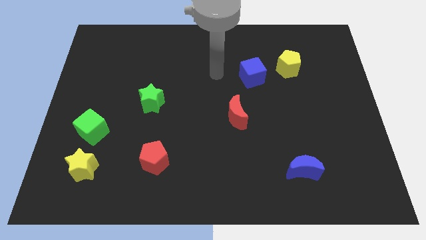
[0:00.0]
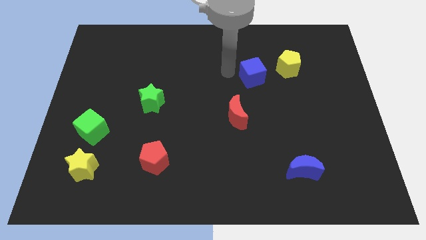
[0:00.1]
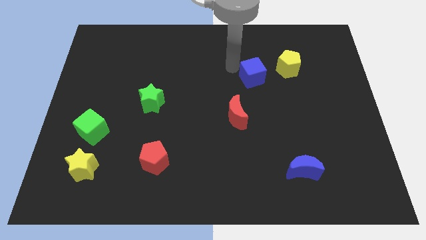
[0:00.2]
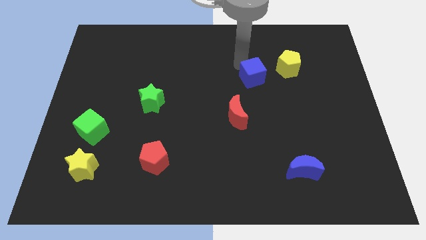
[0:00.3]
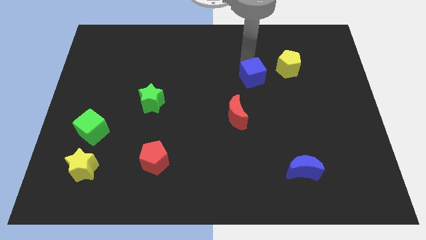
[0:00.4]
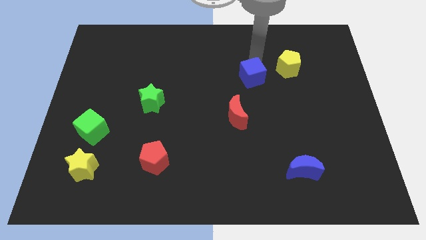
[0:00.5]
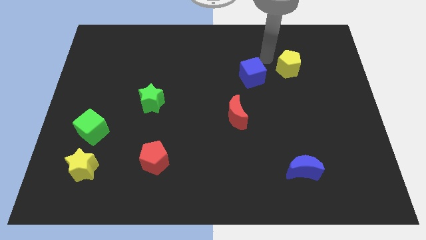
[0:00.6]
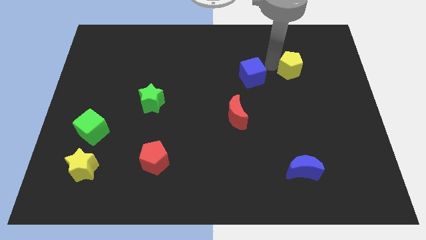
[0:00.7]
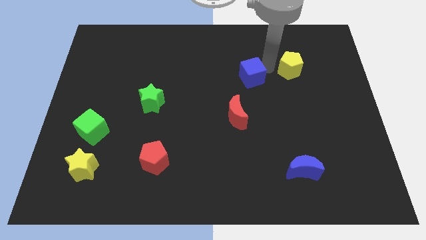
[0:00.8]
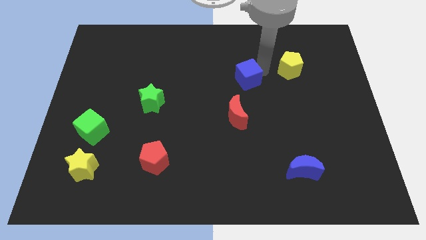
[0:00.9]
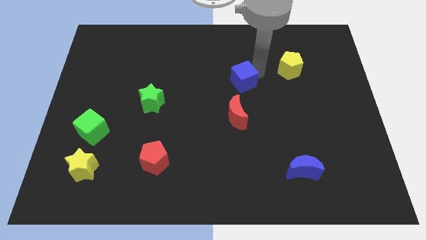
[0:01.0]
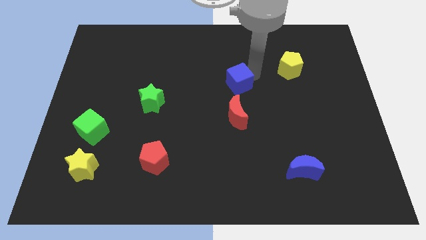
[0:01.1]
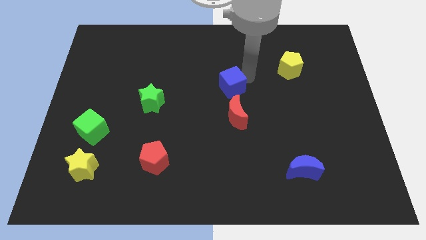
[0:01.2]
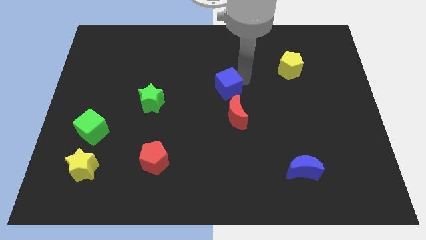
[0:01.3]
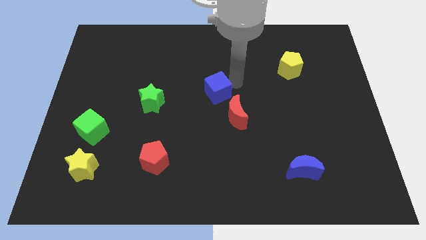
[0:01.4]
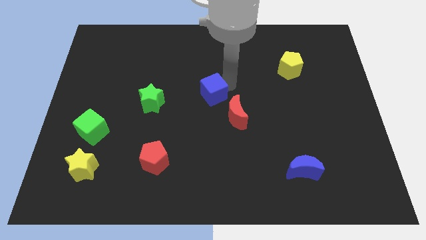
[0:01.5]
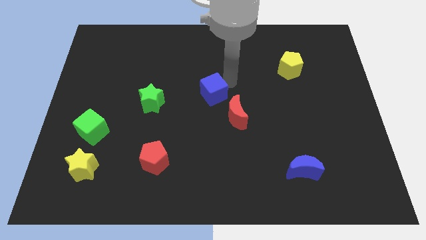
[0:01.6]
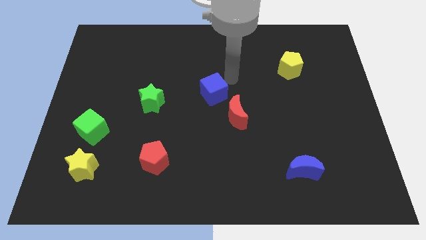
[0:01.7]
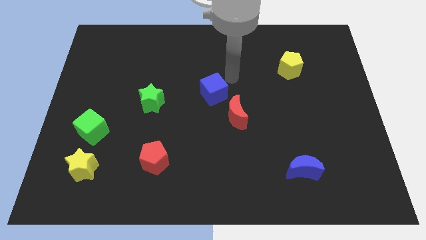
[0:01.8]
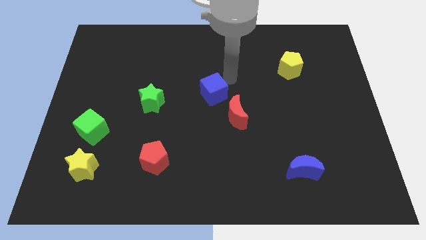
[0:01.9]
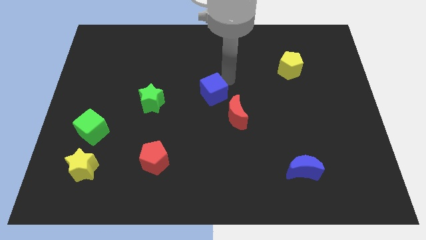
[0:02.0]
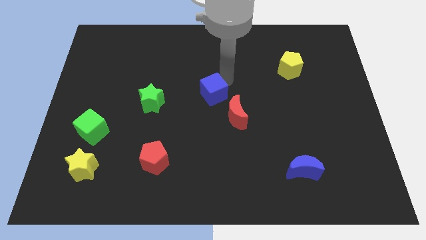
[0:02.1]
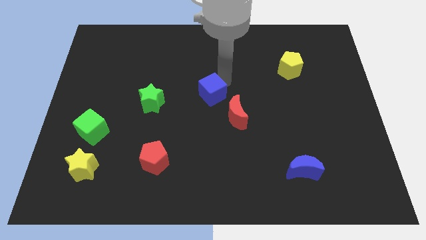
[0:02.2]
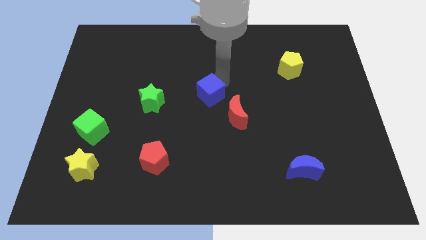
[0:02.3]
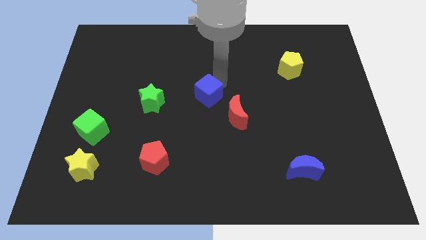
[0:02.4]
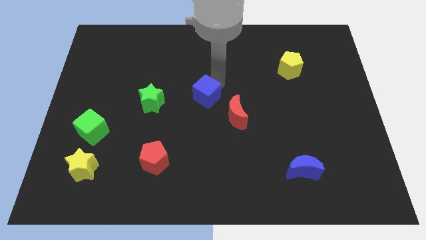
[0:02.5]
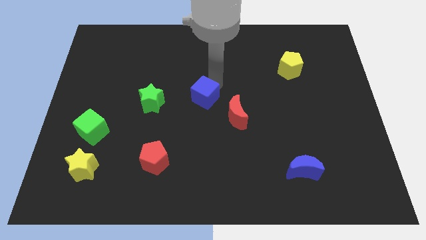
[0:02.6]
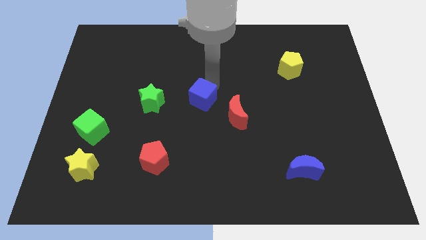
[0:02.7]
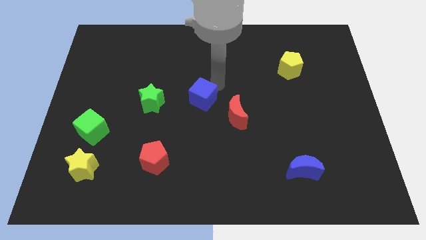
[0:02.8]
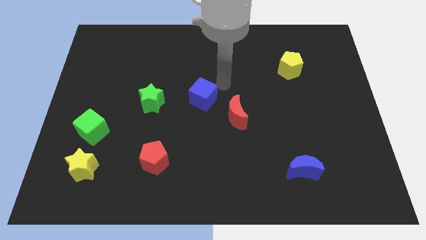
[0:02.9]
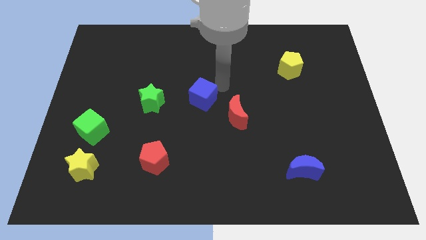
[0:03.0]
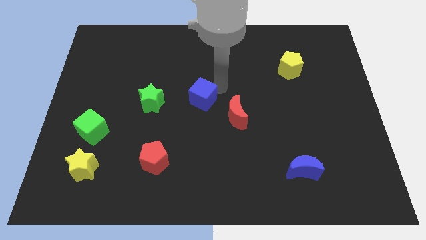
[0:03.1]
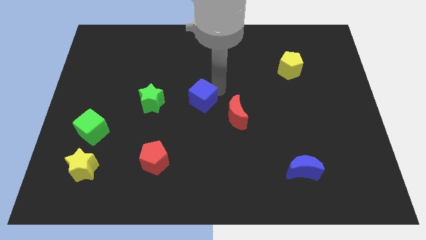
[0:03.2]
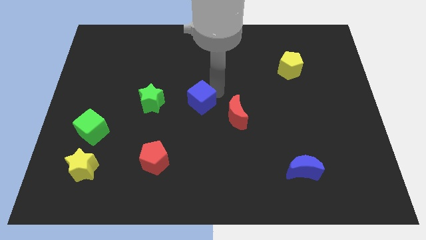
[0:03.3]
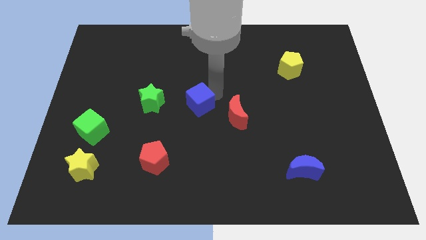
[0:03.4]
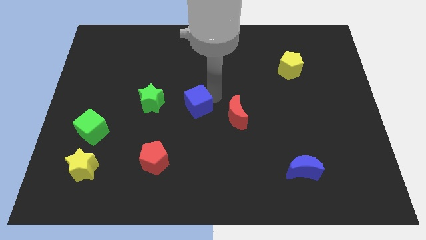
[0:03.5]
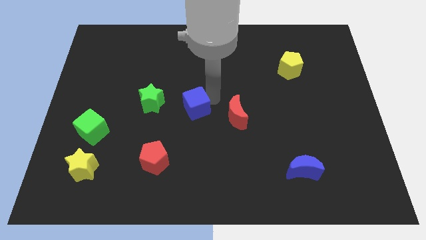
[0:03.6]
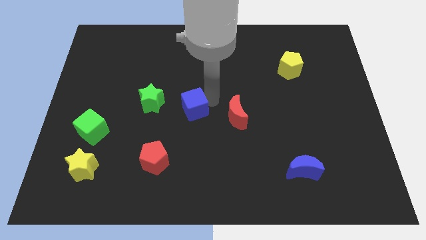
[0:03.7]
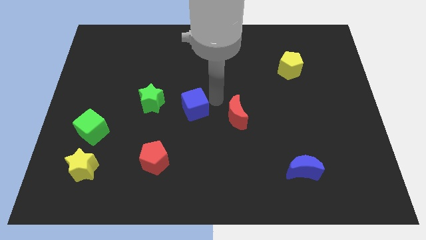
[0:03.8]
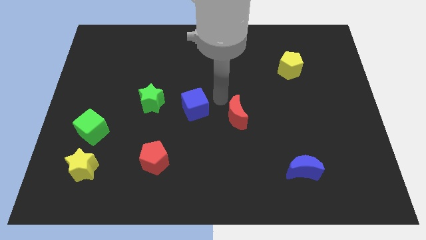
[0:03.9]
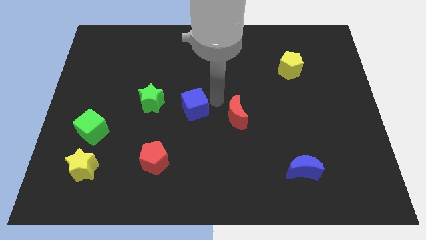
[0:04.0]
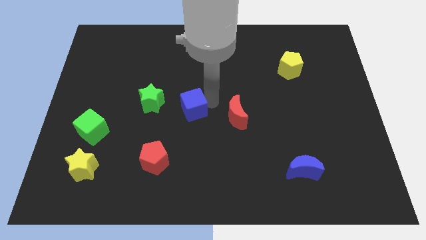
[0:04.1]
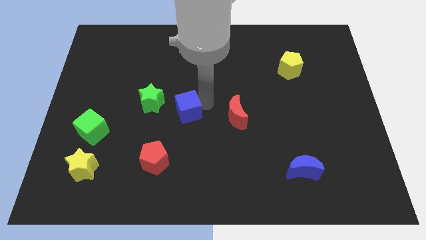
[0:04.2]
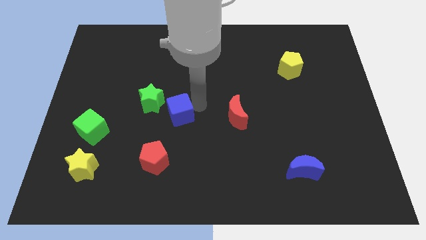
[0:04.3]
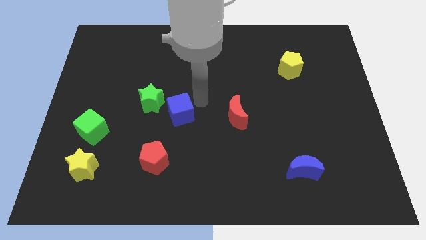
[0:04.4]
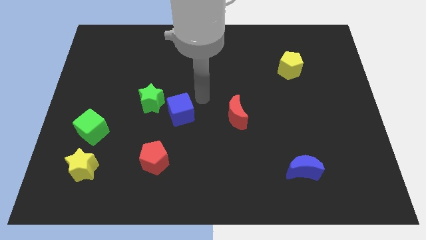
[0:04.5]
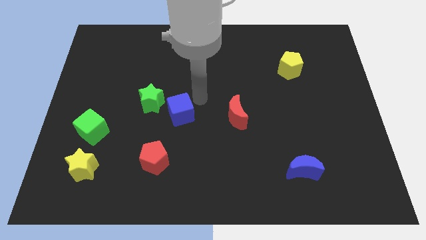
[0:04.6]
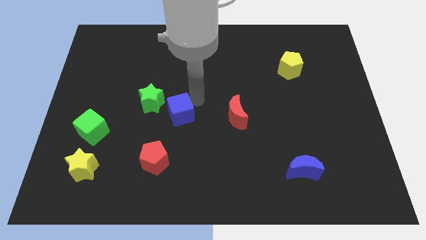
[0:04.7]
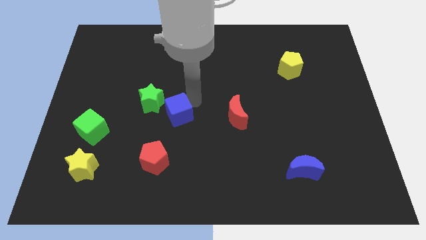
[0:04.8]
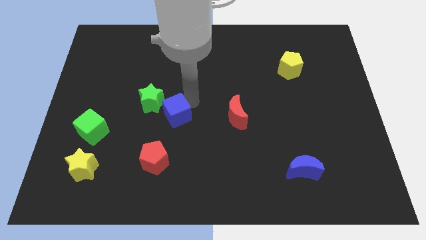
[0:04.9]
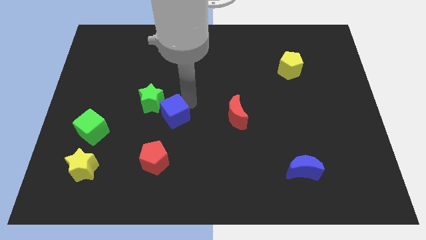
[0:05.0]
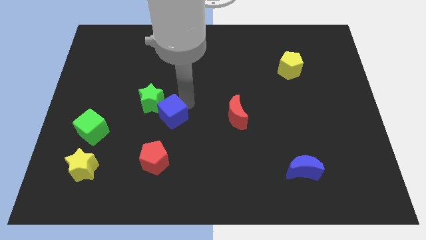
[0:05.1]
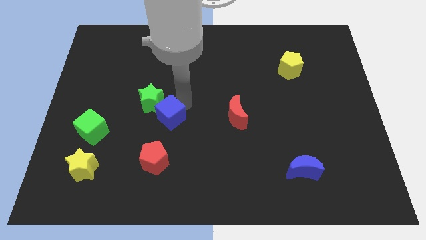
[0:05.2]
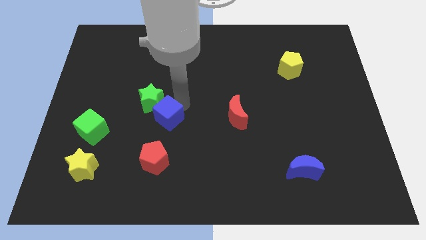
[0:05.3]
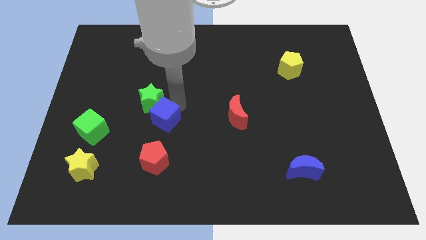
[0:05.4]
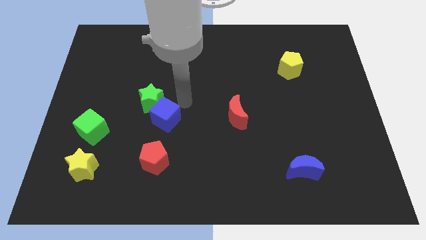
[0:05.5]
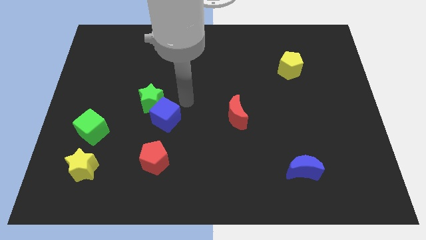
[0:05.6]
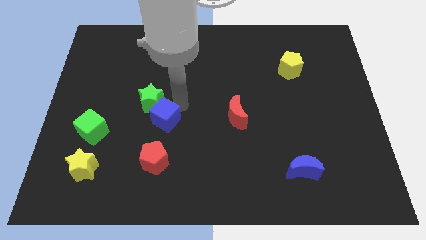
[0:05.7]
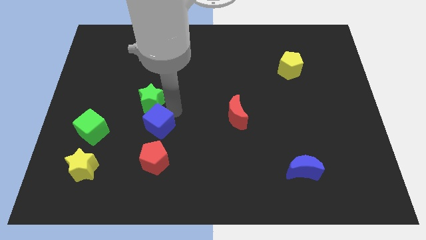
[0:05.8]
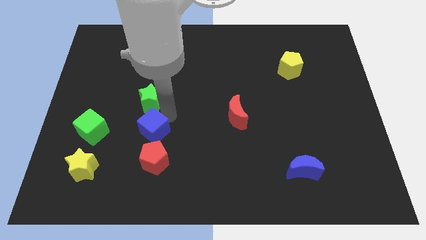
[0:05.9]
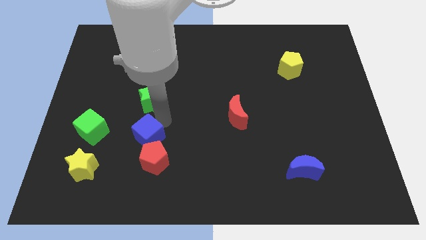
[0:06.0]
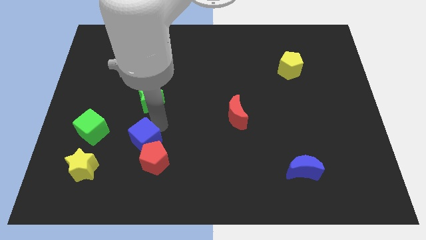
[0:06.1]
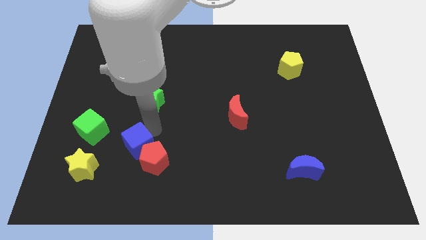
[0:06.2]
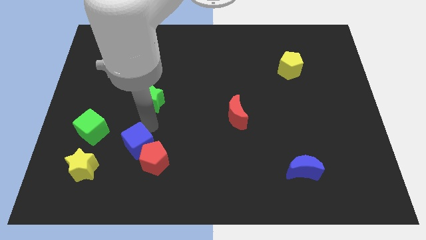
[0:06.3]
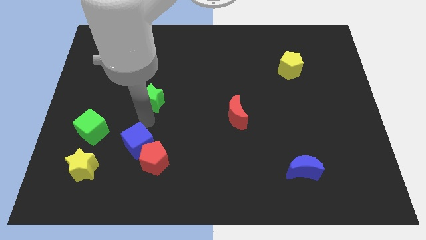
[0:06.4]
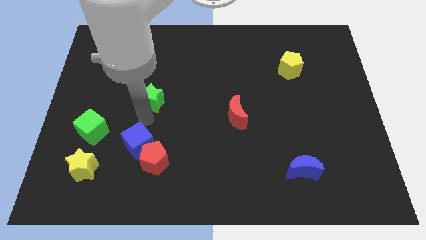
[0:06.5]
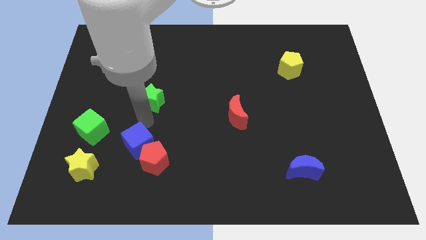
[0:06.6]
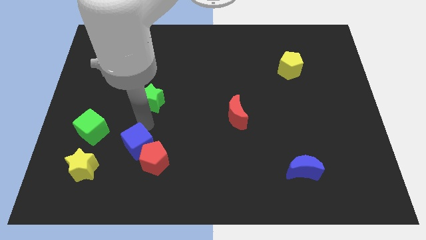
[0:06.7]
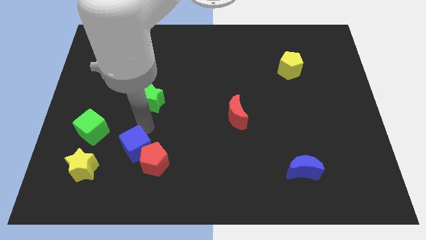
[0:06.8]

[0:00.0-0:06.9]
push the blue cube just right of the yellow star

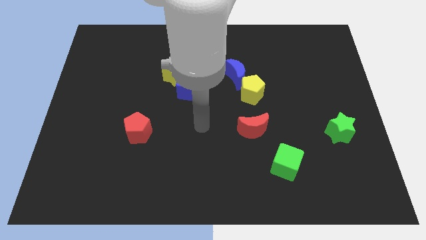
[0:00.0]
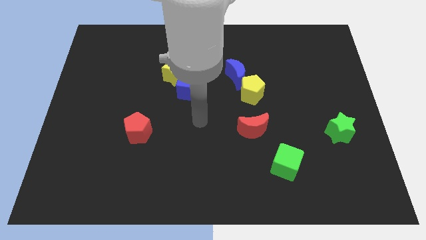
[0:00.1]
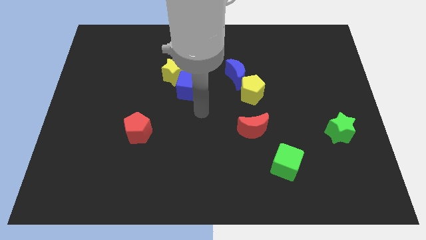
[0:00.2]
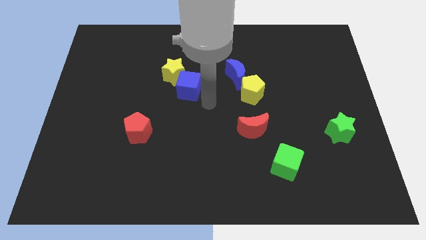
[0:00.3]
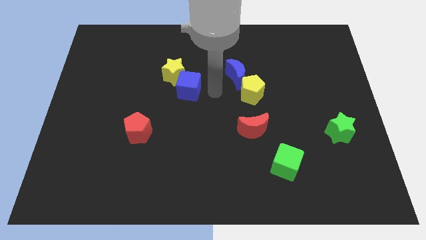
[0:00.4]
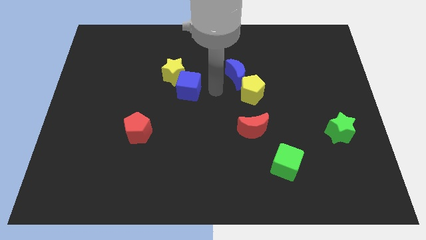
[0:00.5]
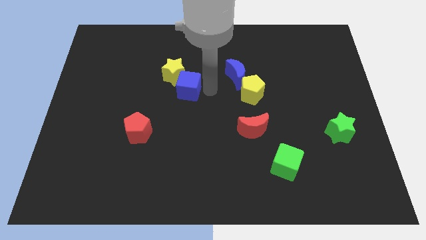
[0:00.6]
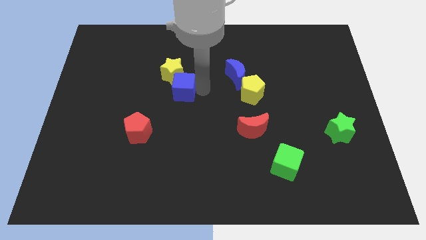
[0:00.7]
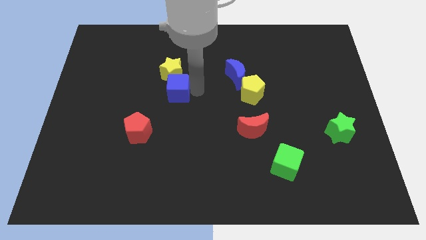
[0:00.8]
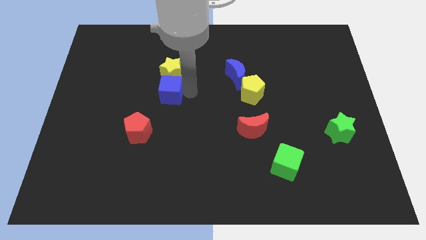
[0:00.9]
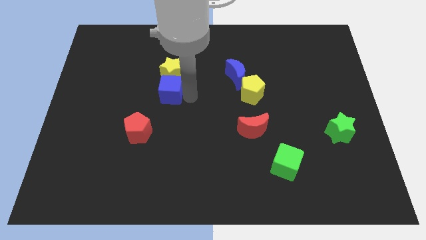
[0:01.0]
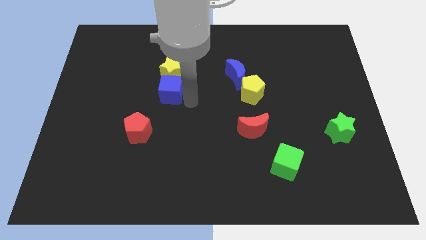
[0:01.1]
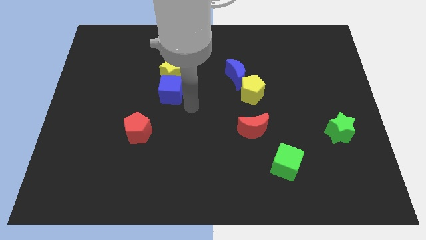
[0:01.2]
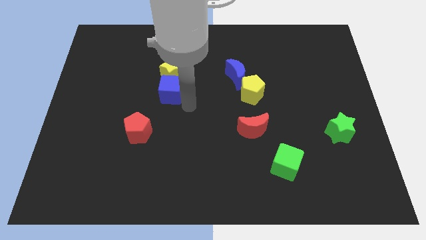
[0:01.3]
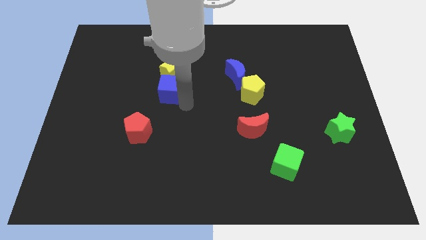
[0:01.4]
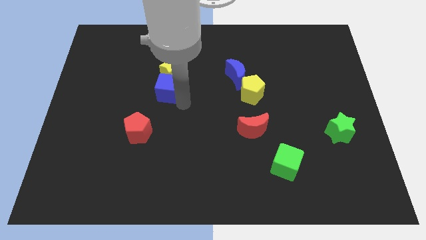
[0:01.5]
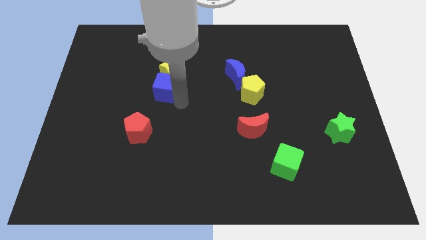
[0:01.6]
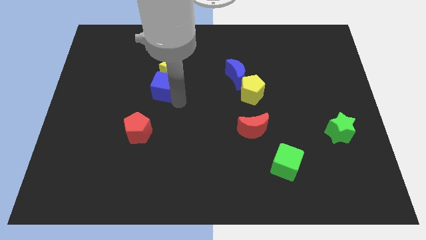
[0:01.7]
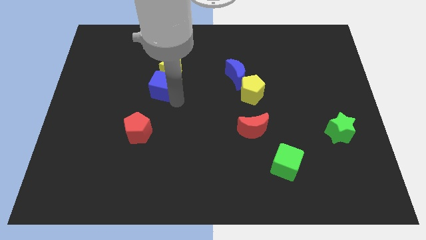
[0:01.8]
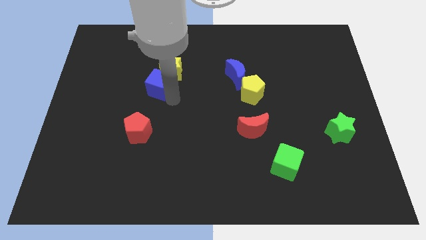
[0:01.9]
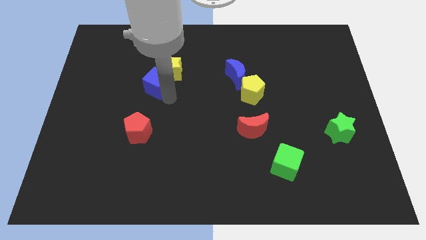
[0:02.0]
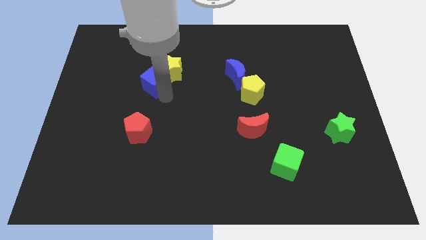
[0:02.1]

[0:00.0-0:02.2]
push the blue cube to the left of the yellow star
